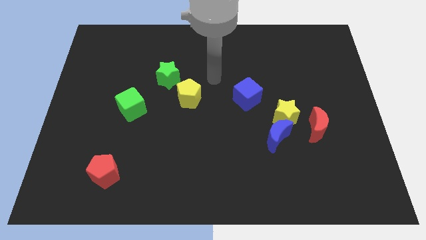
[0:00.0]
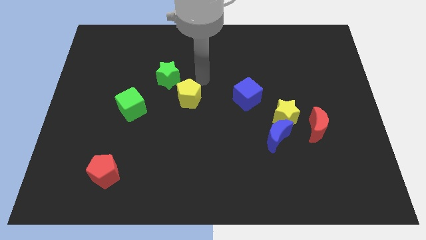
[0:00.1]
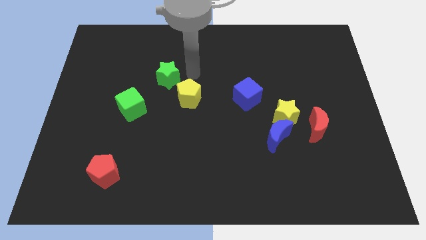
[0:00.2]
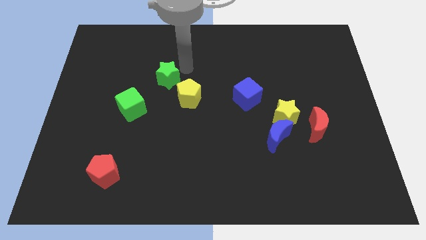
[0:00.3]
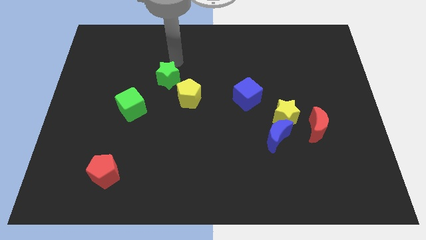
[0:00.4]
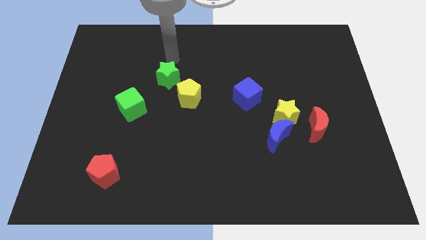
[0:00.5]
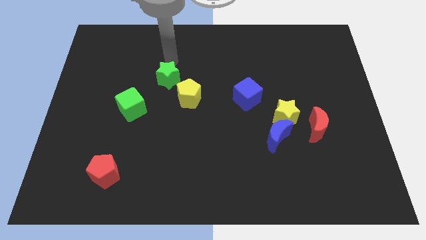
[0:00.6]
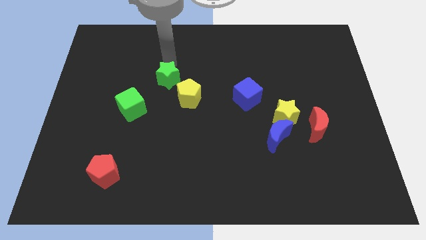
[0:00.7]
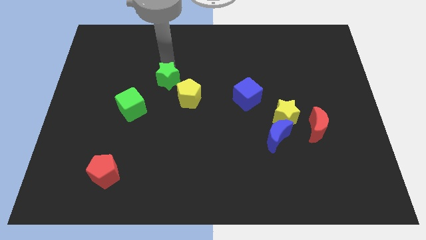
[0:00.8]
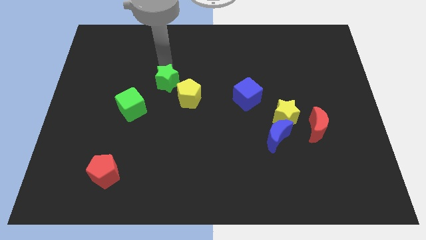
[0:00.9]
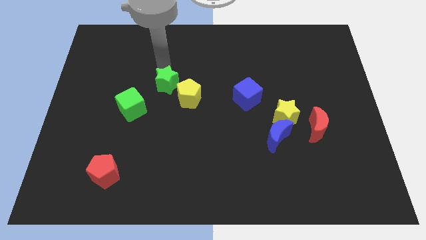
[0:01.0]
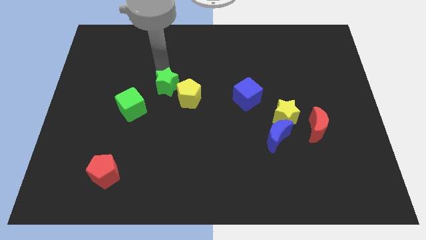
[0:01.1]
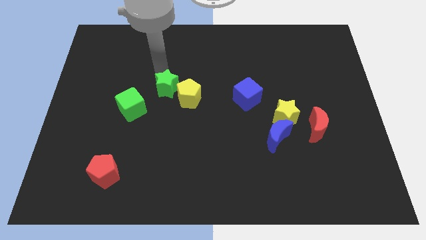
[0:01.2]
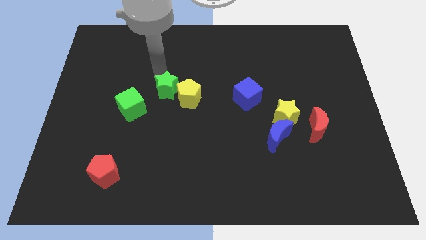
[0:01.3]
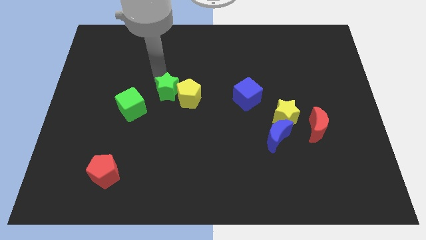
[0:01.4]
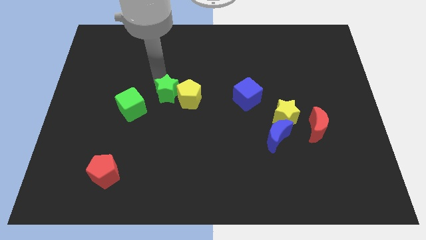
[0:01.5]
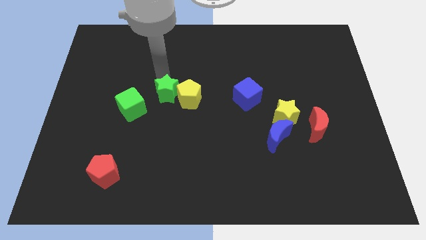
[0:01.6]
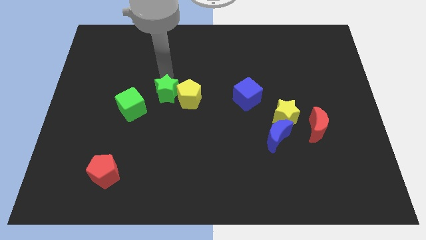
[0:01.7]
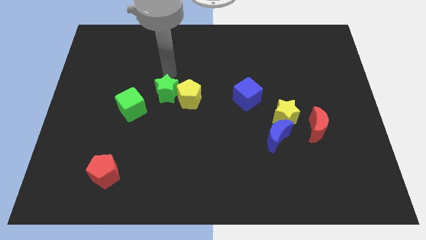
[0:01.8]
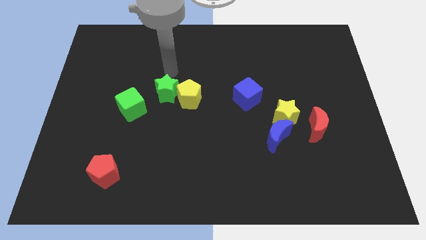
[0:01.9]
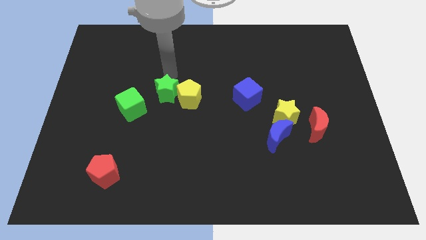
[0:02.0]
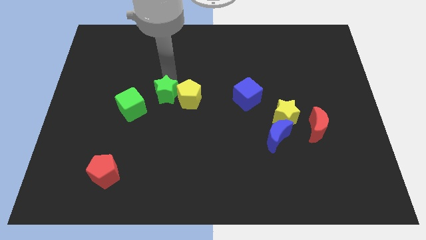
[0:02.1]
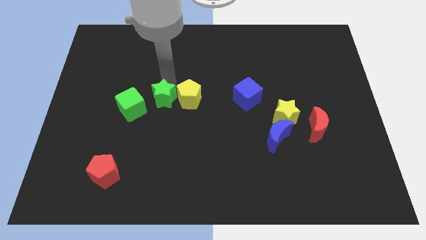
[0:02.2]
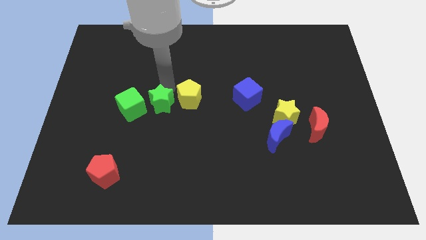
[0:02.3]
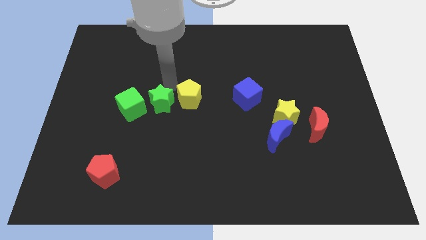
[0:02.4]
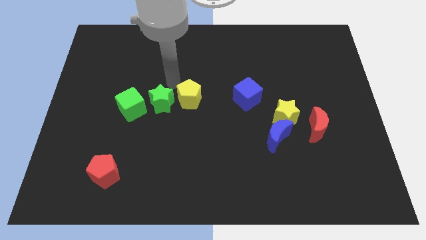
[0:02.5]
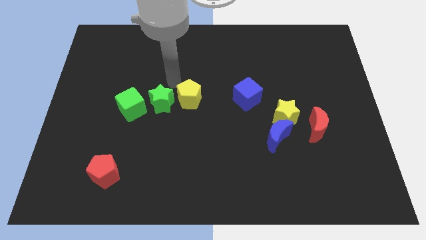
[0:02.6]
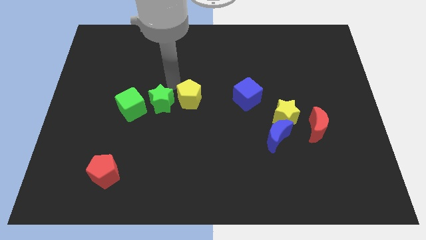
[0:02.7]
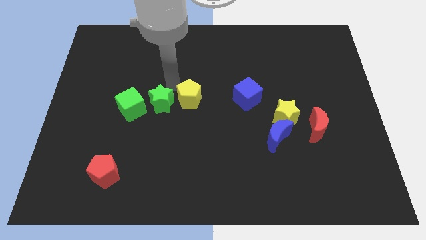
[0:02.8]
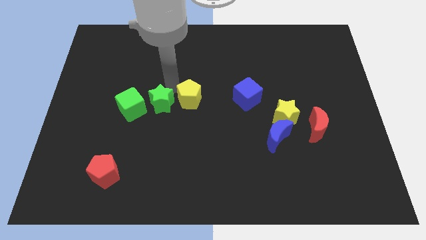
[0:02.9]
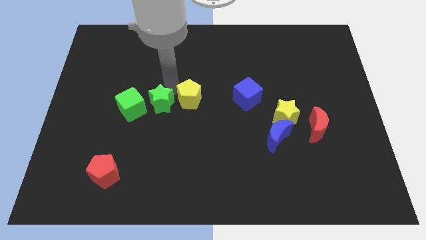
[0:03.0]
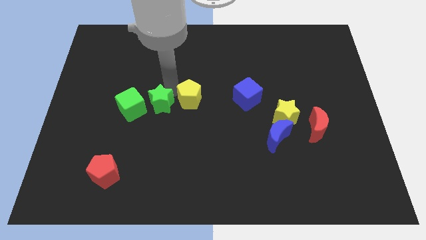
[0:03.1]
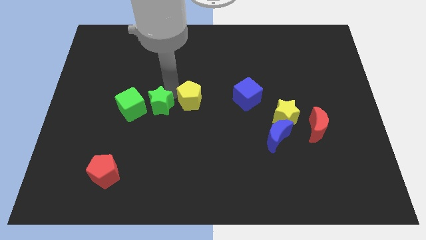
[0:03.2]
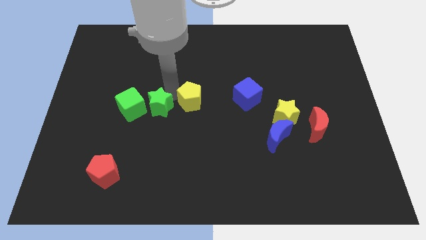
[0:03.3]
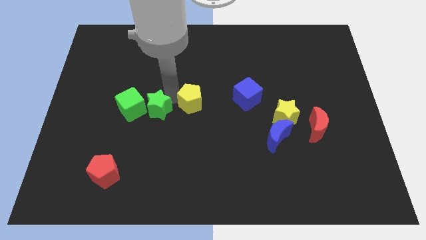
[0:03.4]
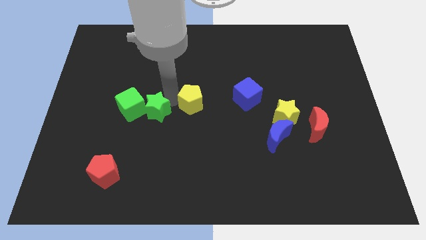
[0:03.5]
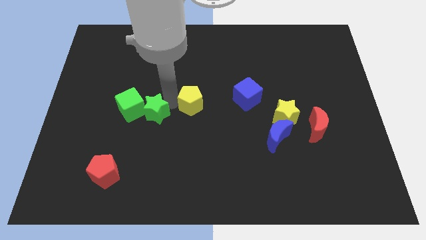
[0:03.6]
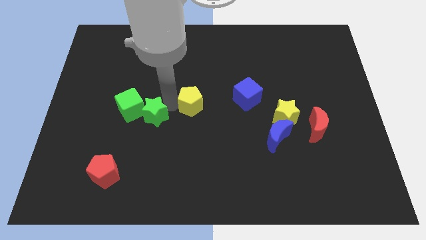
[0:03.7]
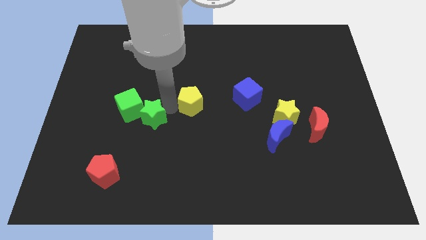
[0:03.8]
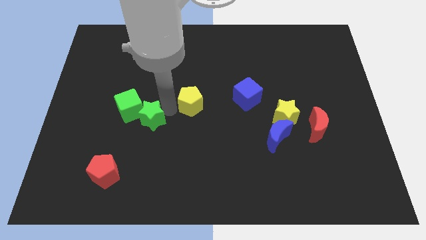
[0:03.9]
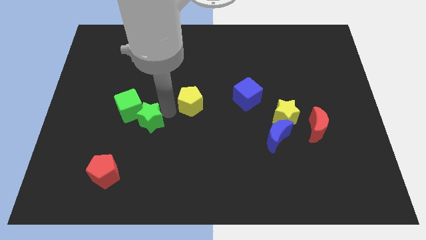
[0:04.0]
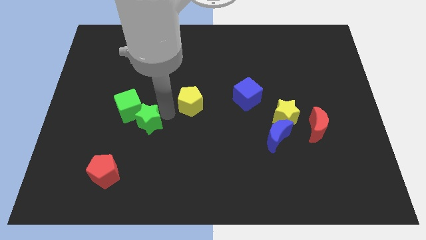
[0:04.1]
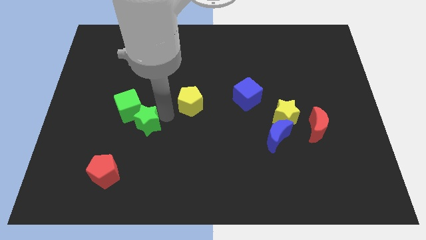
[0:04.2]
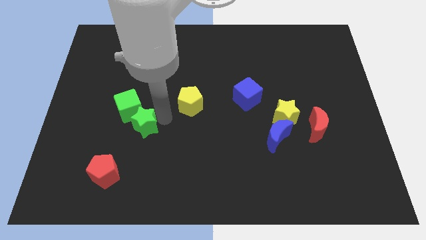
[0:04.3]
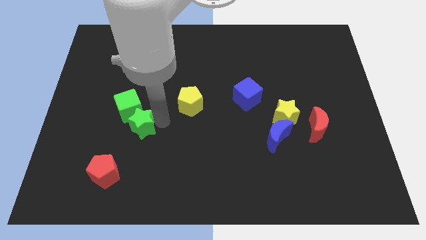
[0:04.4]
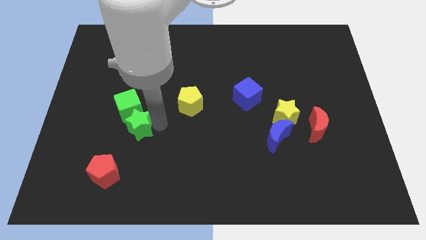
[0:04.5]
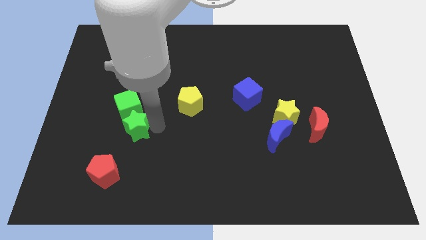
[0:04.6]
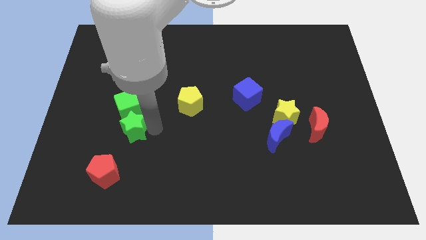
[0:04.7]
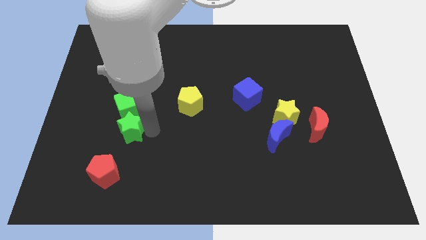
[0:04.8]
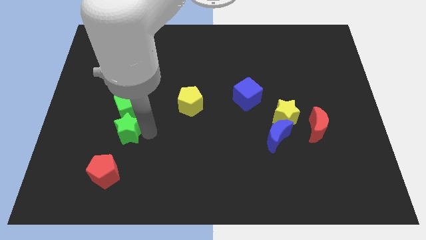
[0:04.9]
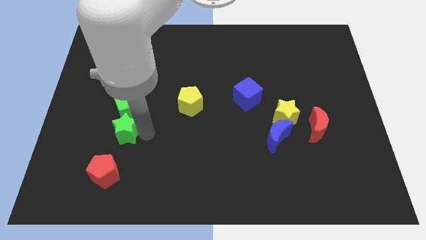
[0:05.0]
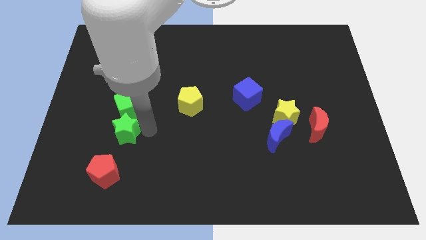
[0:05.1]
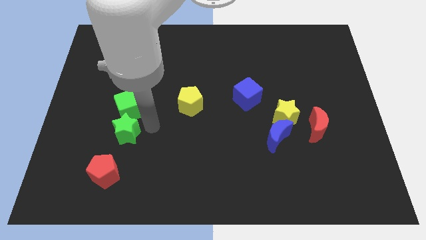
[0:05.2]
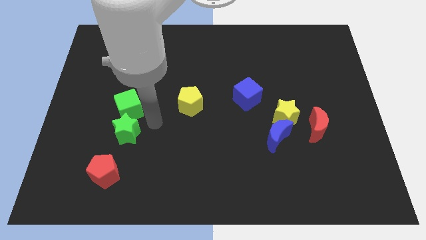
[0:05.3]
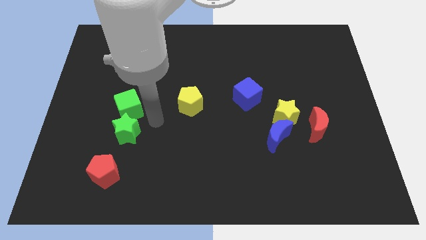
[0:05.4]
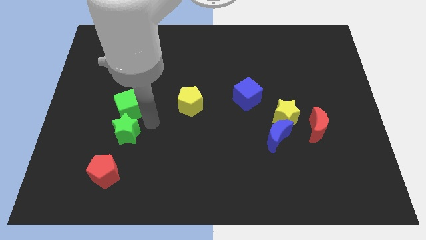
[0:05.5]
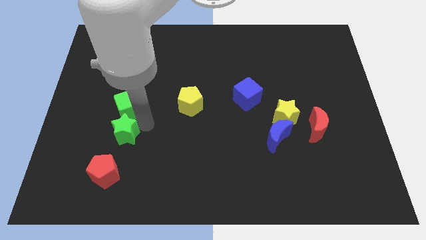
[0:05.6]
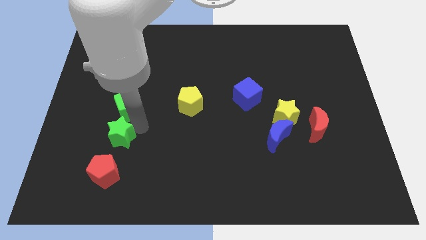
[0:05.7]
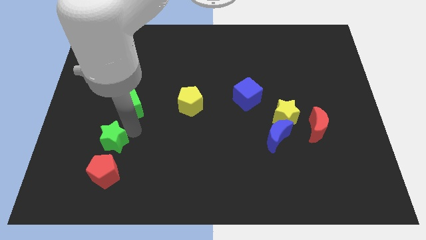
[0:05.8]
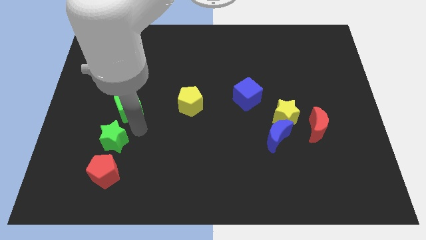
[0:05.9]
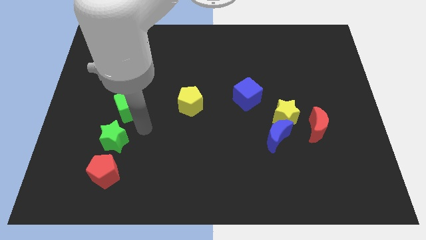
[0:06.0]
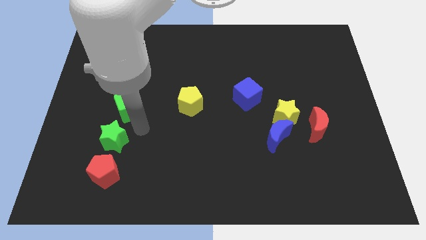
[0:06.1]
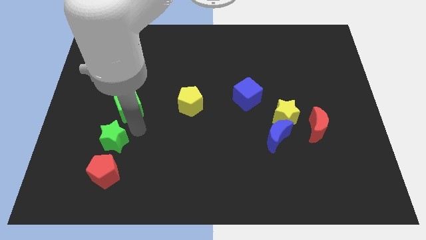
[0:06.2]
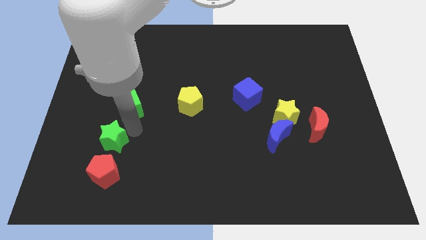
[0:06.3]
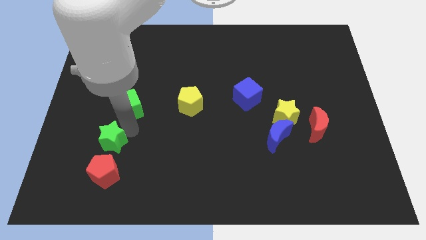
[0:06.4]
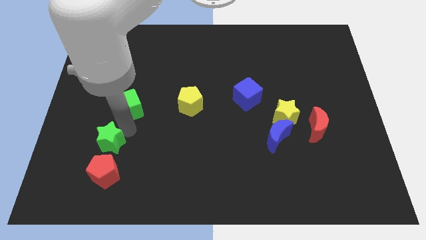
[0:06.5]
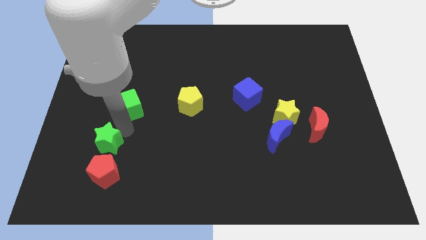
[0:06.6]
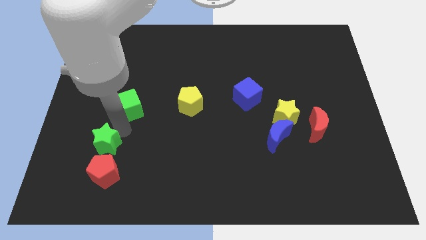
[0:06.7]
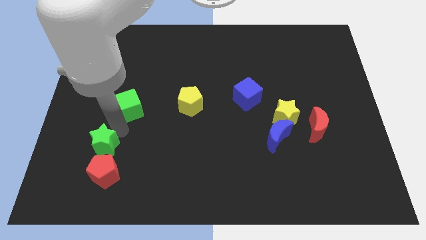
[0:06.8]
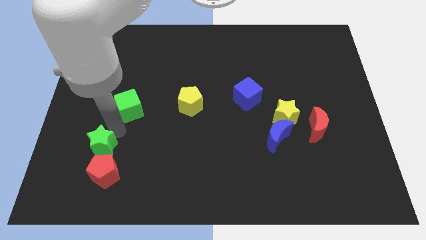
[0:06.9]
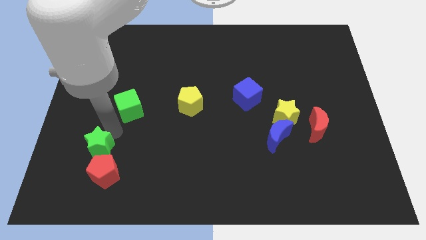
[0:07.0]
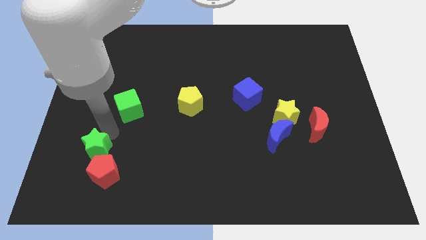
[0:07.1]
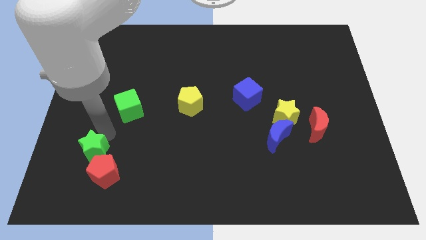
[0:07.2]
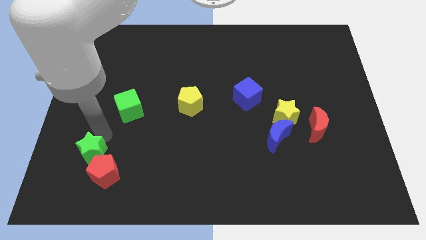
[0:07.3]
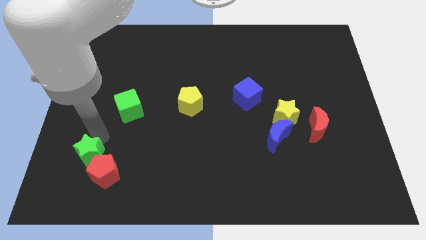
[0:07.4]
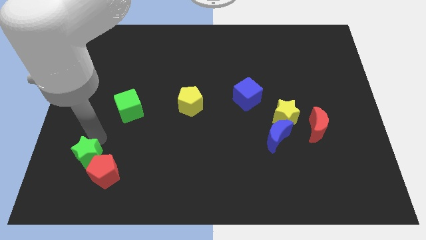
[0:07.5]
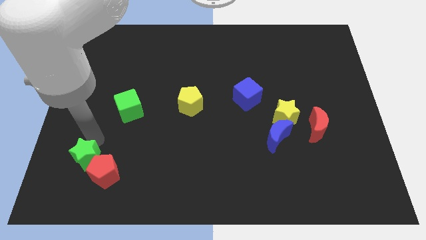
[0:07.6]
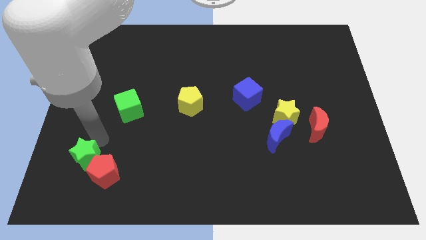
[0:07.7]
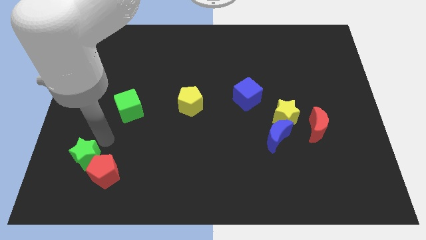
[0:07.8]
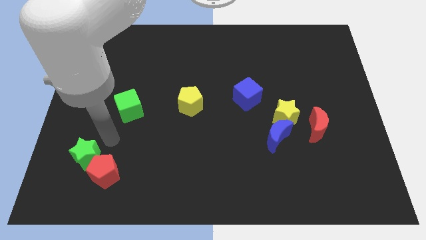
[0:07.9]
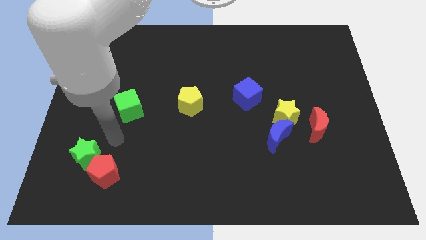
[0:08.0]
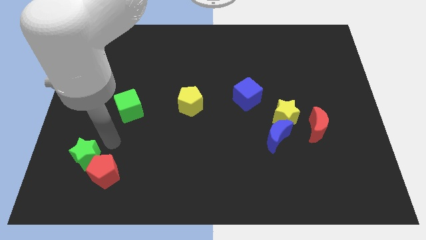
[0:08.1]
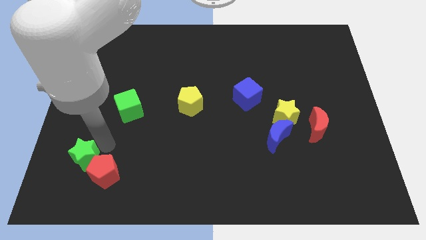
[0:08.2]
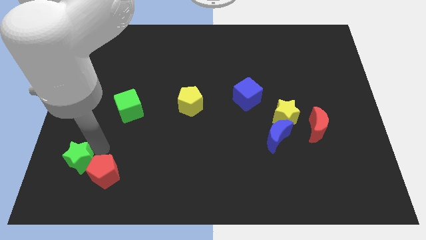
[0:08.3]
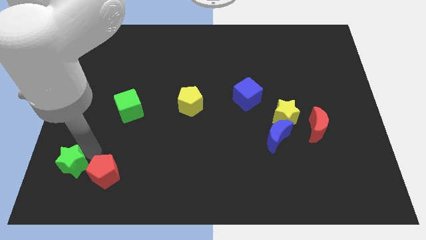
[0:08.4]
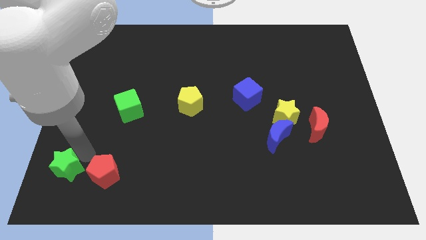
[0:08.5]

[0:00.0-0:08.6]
slide the green star to the bottom left of the board
